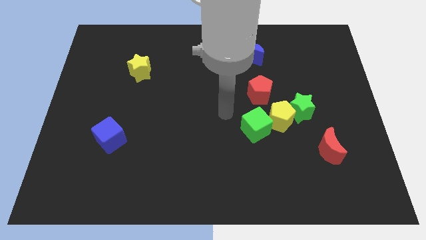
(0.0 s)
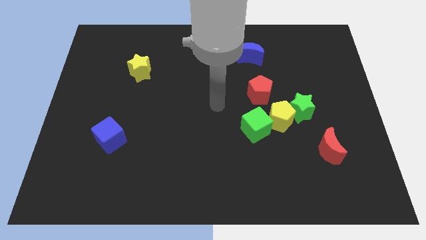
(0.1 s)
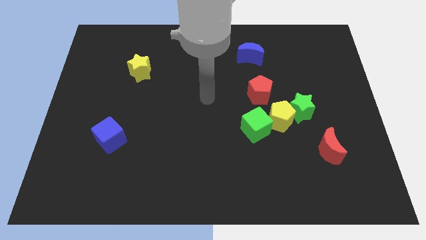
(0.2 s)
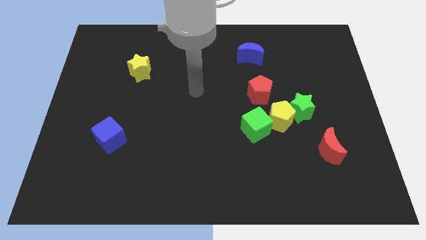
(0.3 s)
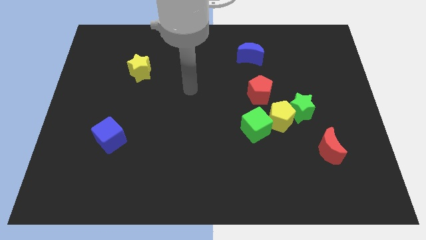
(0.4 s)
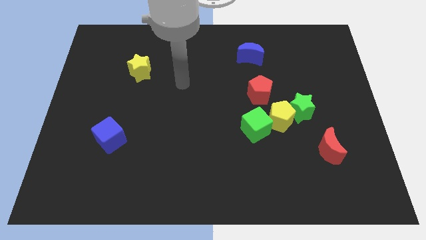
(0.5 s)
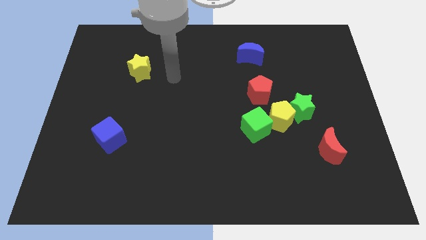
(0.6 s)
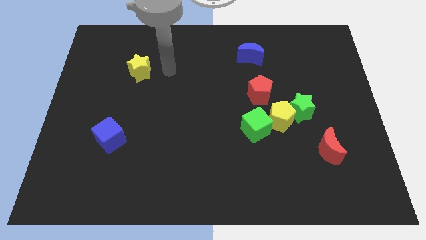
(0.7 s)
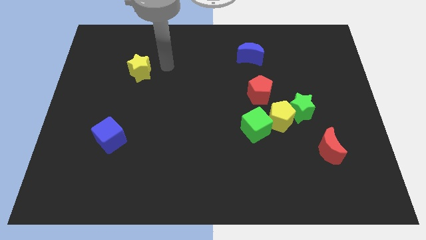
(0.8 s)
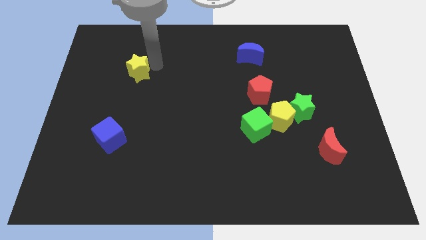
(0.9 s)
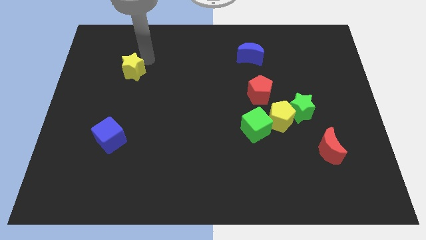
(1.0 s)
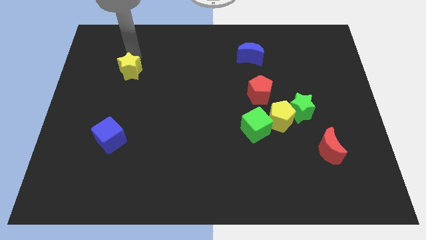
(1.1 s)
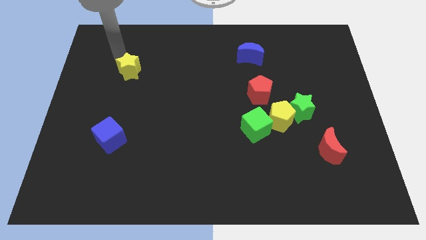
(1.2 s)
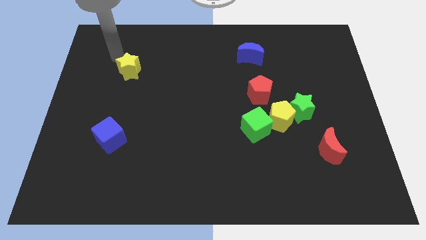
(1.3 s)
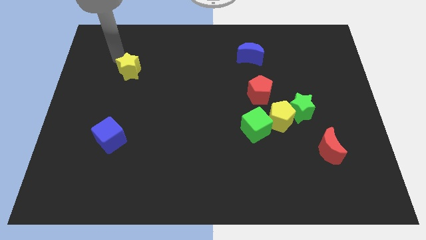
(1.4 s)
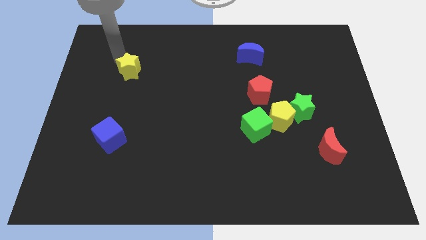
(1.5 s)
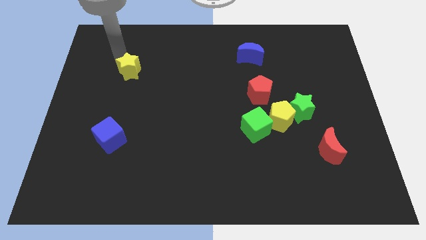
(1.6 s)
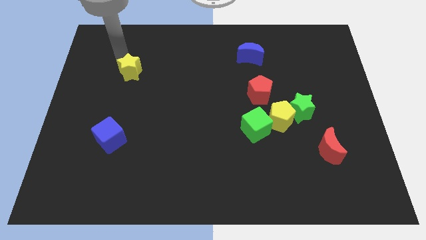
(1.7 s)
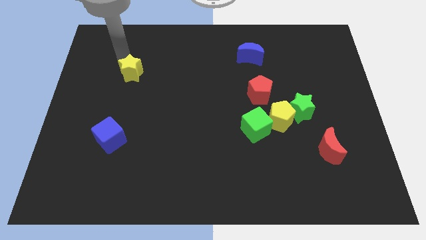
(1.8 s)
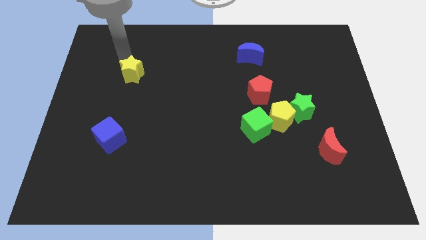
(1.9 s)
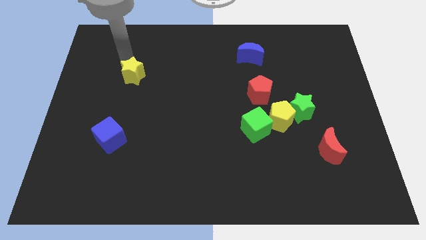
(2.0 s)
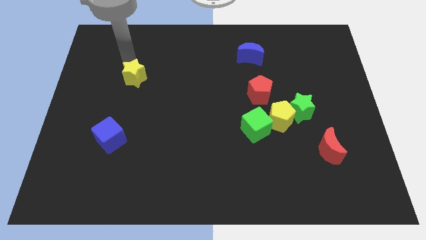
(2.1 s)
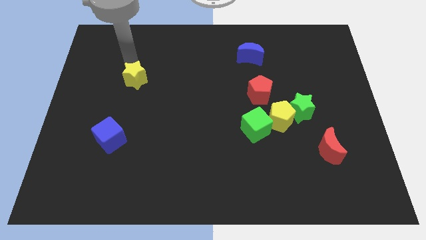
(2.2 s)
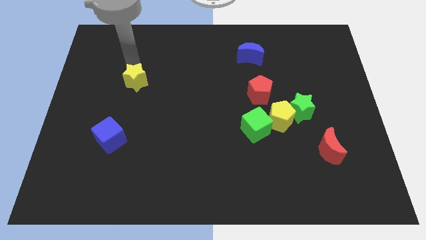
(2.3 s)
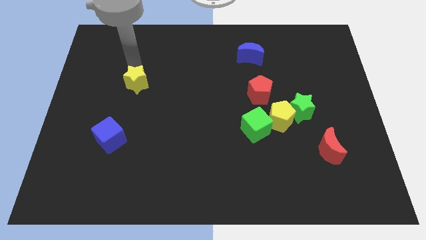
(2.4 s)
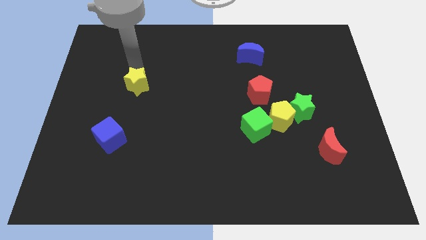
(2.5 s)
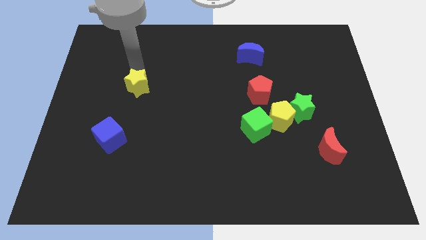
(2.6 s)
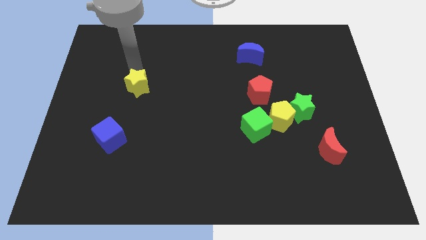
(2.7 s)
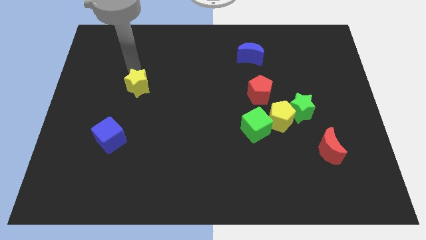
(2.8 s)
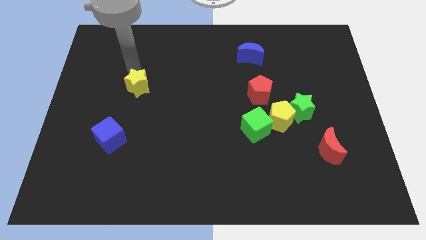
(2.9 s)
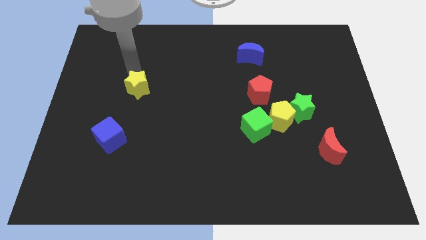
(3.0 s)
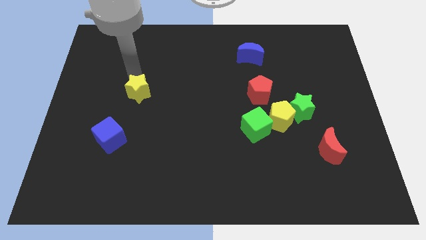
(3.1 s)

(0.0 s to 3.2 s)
slide the yellow star somewhat down

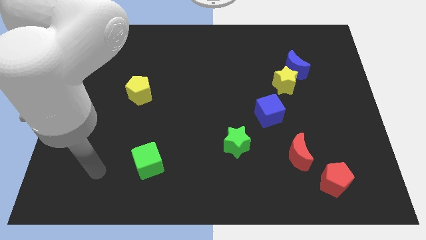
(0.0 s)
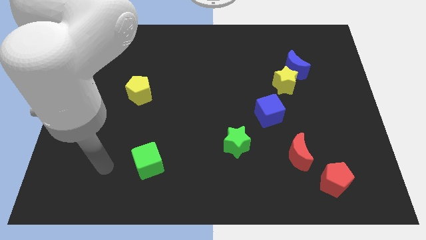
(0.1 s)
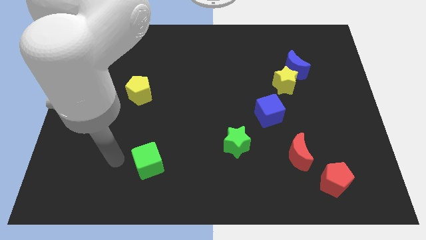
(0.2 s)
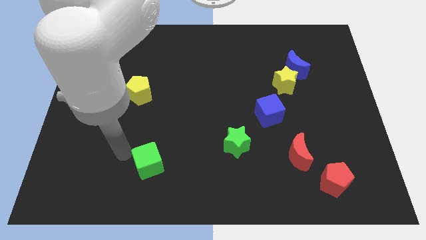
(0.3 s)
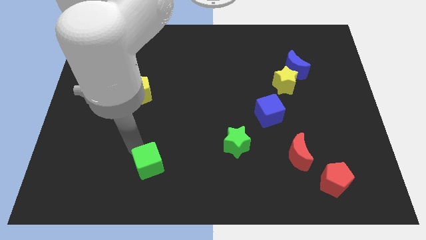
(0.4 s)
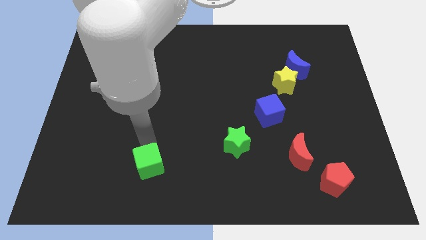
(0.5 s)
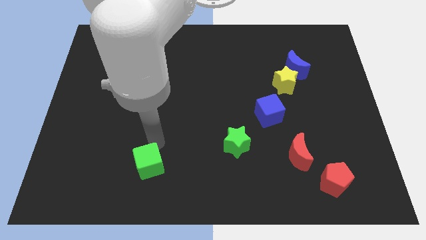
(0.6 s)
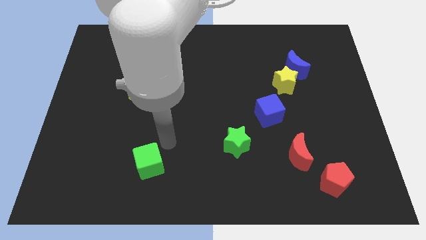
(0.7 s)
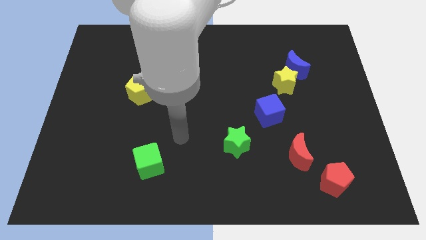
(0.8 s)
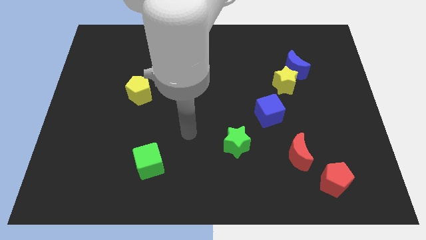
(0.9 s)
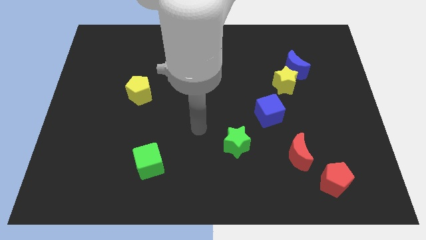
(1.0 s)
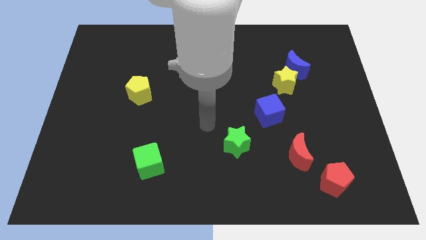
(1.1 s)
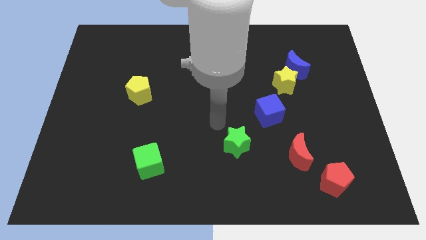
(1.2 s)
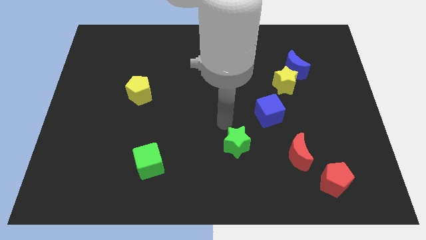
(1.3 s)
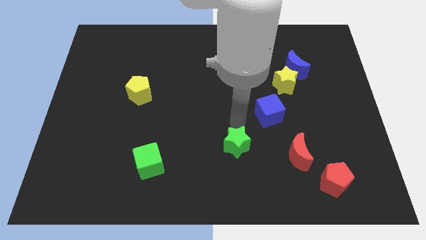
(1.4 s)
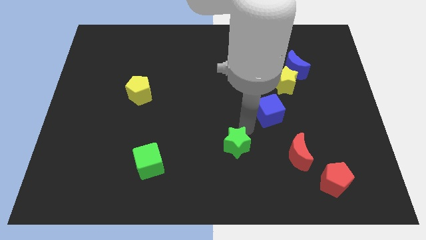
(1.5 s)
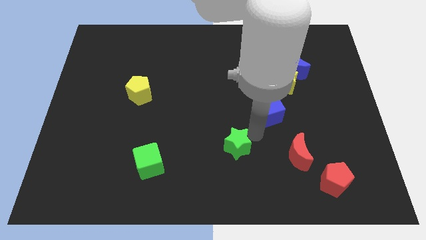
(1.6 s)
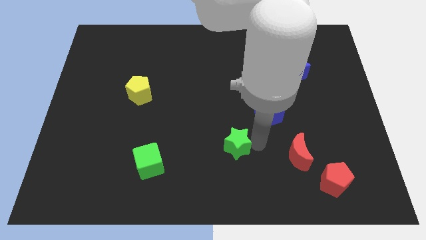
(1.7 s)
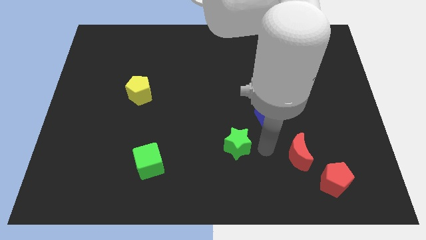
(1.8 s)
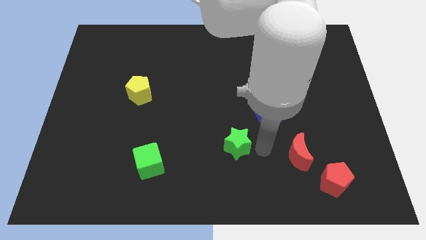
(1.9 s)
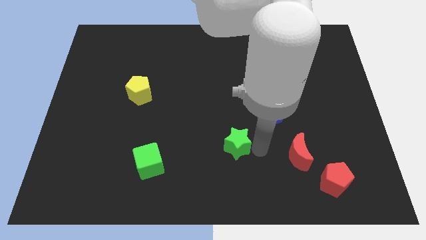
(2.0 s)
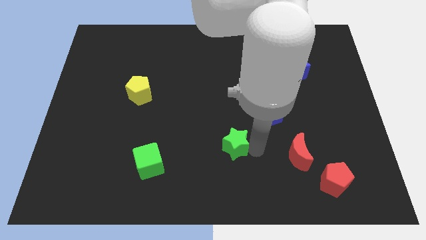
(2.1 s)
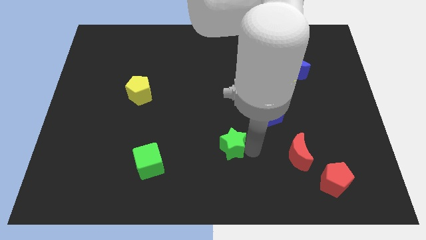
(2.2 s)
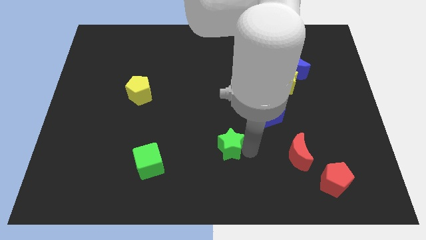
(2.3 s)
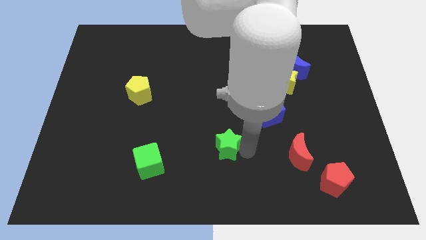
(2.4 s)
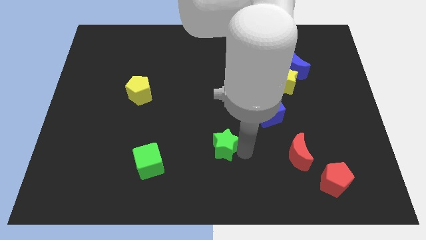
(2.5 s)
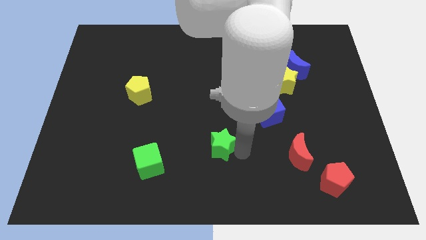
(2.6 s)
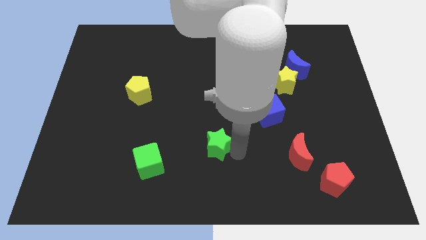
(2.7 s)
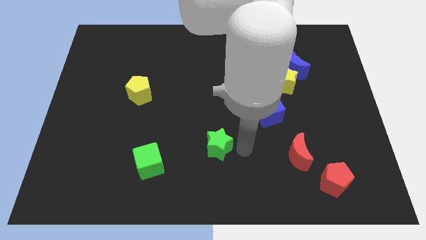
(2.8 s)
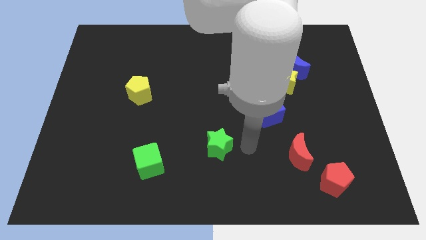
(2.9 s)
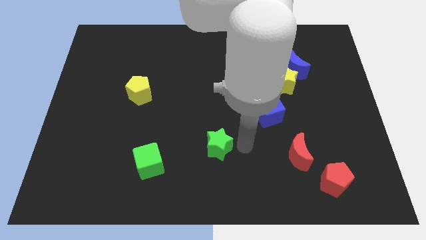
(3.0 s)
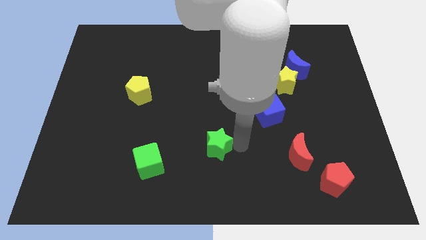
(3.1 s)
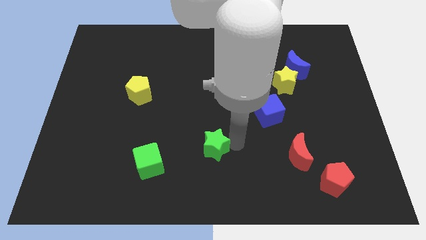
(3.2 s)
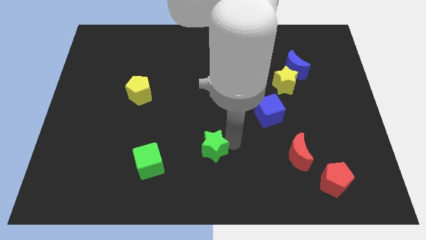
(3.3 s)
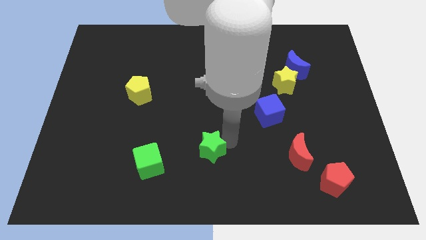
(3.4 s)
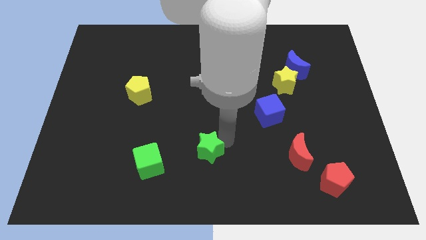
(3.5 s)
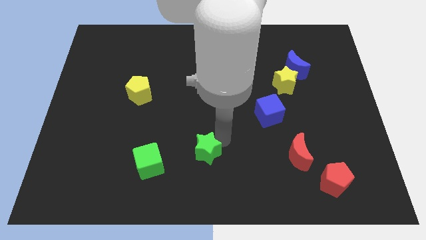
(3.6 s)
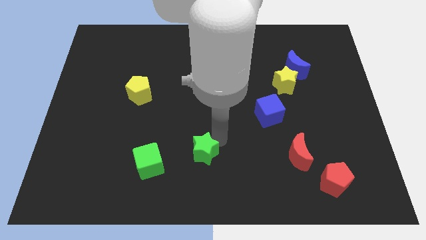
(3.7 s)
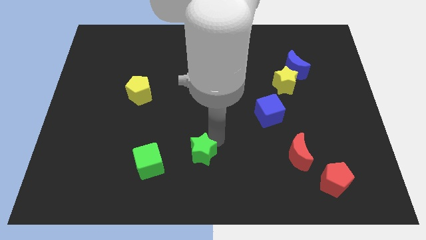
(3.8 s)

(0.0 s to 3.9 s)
push the green star left a little

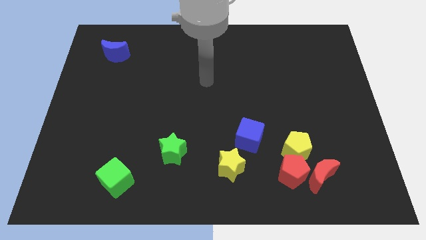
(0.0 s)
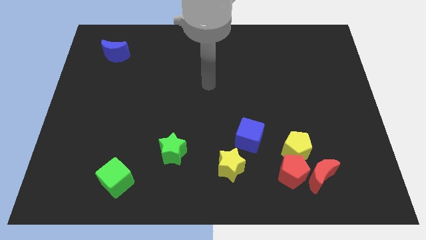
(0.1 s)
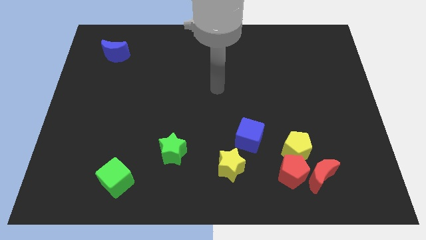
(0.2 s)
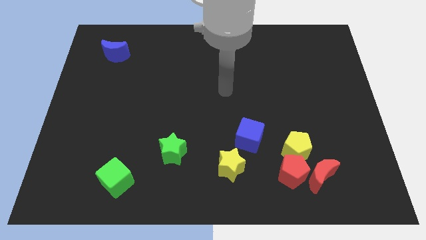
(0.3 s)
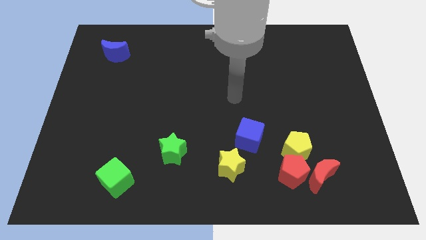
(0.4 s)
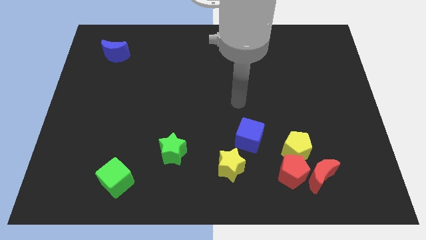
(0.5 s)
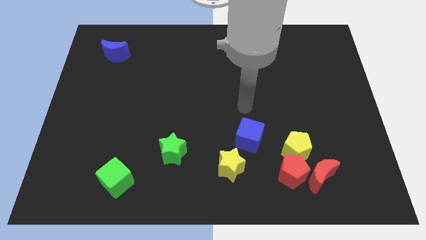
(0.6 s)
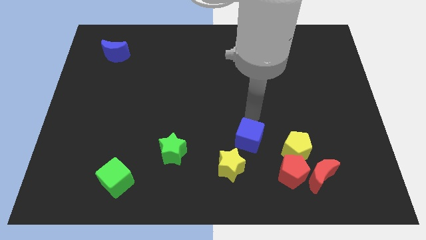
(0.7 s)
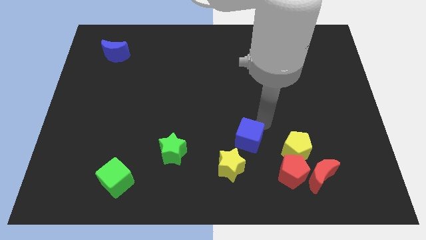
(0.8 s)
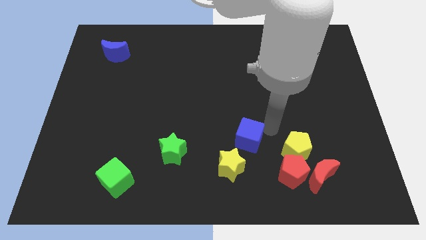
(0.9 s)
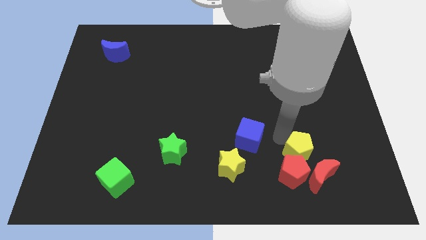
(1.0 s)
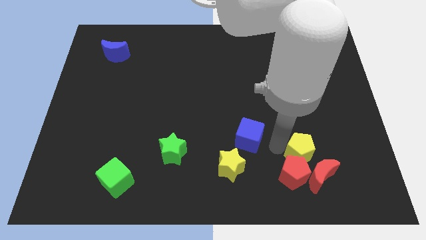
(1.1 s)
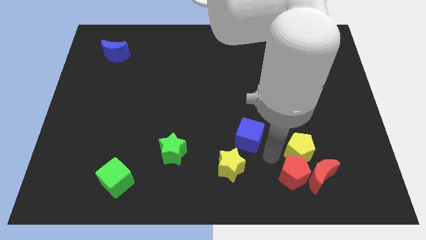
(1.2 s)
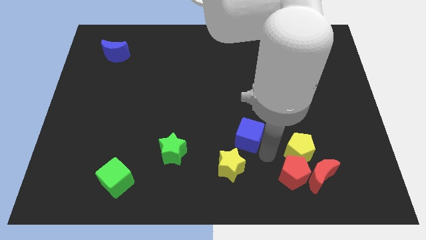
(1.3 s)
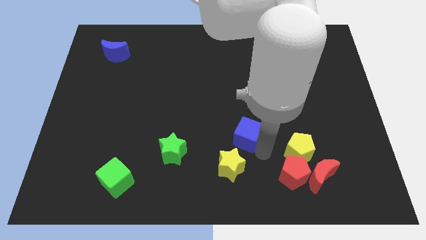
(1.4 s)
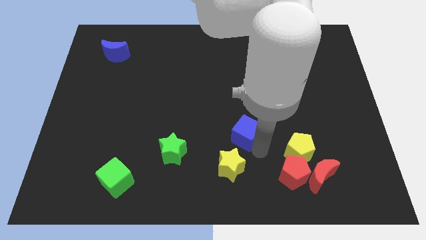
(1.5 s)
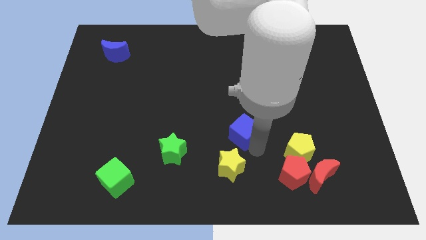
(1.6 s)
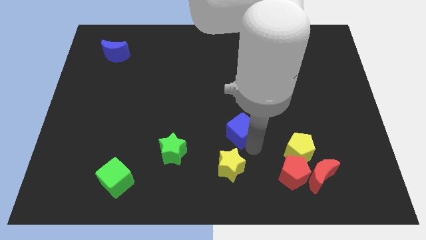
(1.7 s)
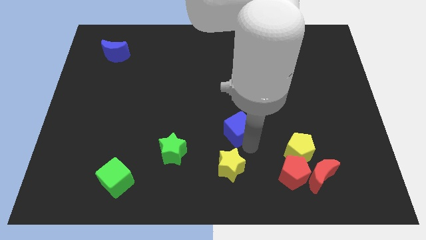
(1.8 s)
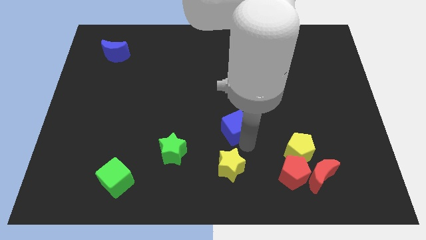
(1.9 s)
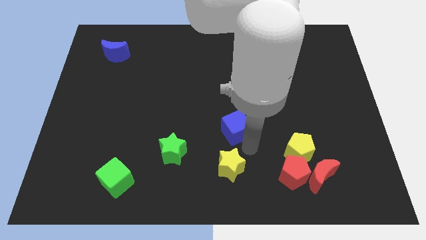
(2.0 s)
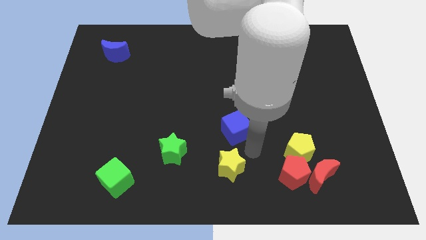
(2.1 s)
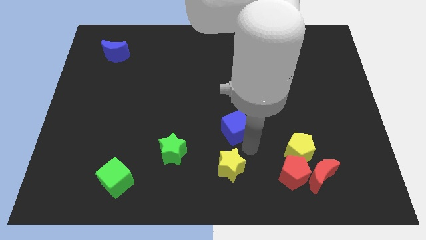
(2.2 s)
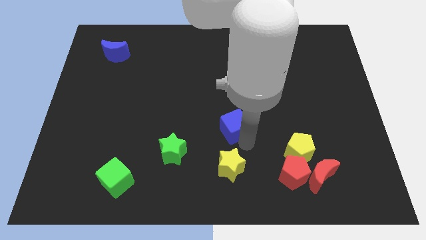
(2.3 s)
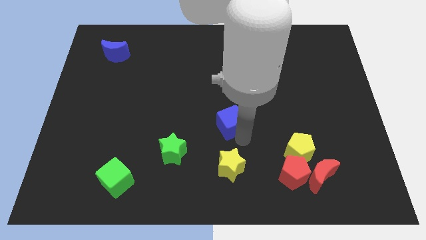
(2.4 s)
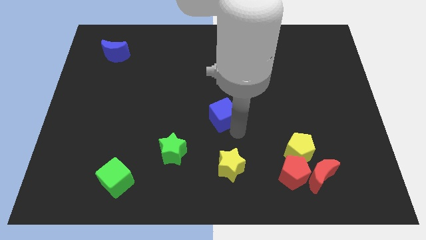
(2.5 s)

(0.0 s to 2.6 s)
slightly slide the blue cube upwards and left diagonally
